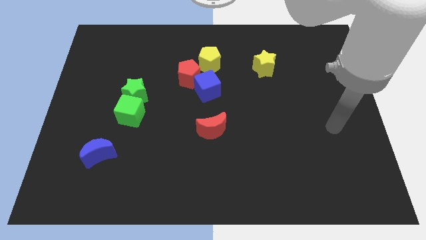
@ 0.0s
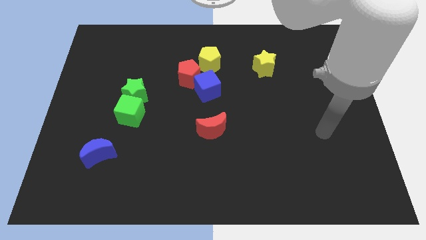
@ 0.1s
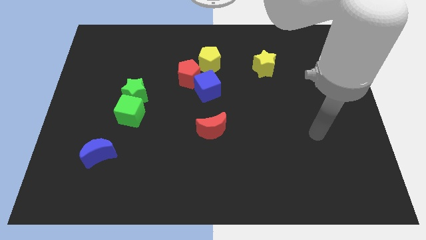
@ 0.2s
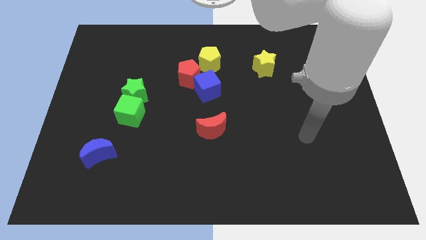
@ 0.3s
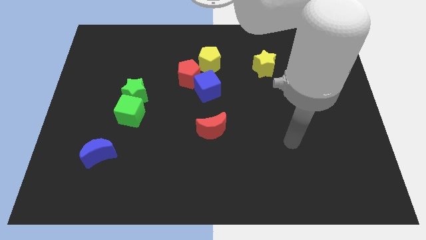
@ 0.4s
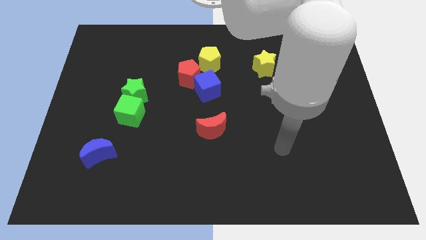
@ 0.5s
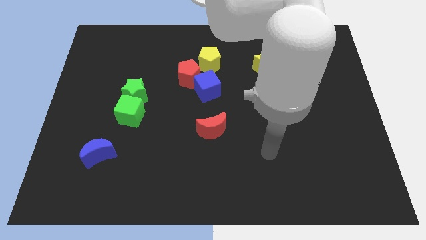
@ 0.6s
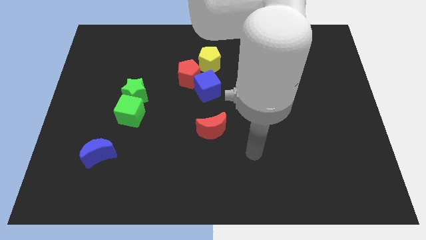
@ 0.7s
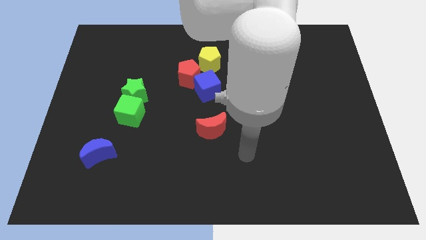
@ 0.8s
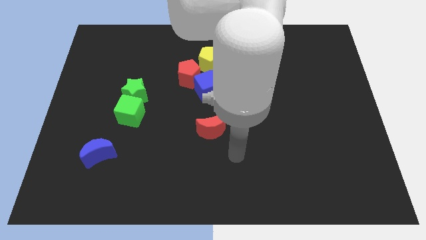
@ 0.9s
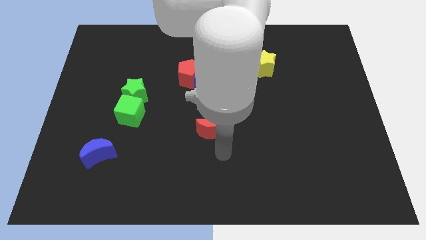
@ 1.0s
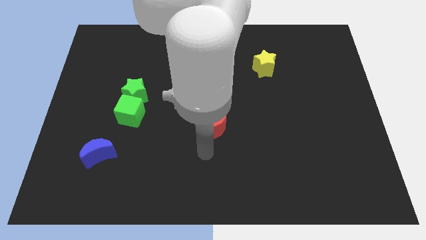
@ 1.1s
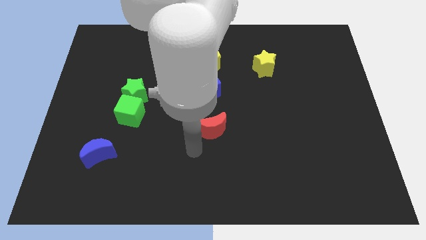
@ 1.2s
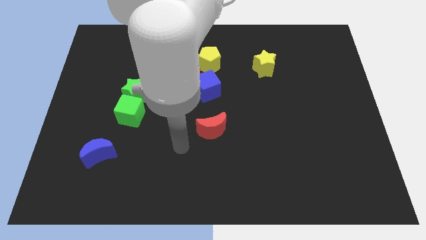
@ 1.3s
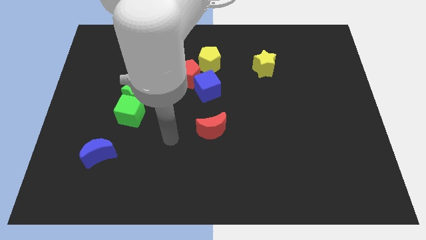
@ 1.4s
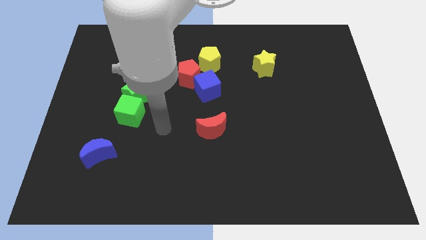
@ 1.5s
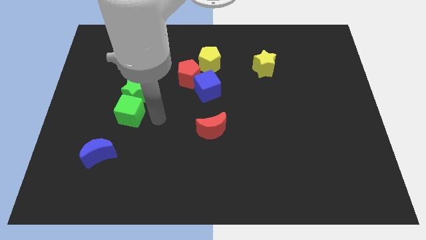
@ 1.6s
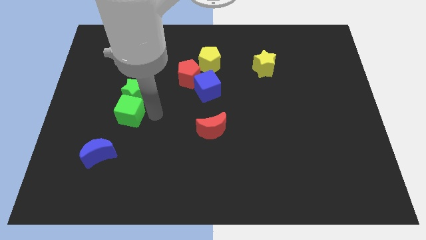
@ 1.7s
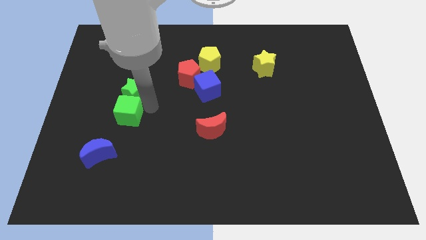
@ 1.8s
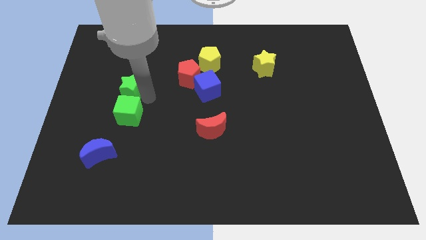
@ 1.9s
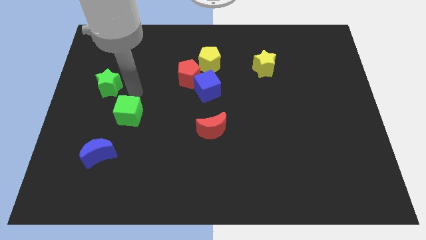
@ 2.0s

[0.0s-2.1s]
move the green cube away from the green star

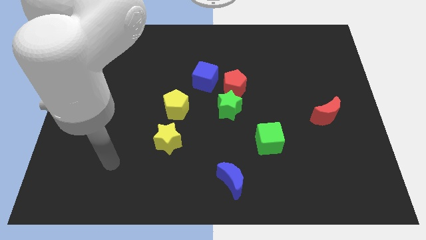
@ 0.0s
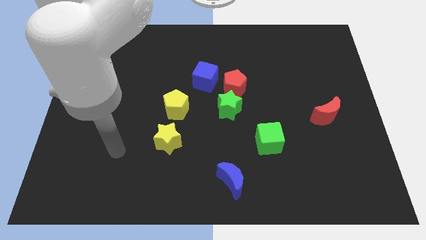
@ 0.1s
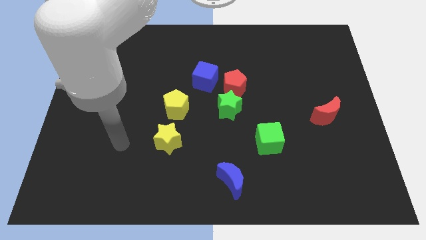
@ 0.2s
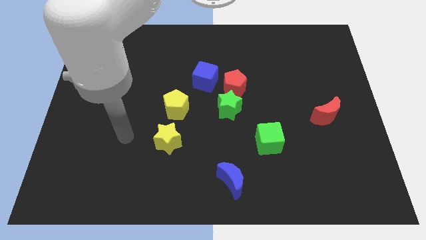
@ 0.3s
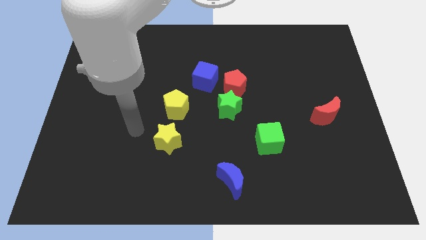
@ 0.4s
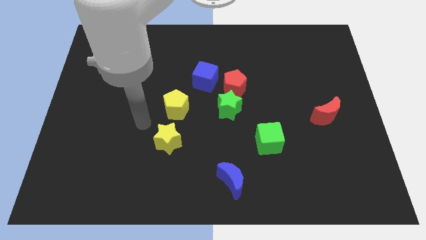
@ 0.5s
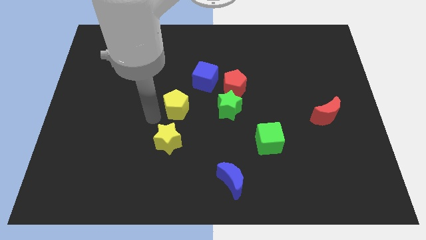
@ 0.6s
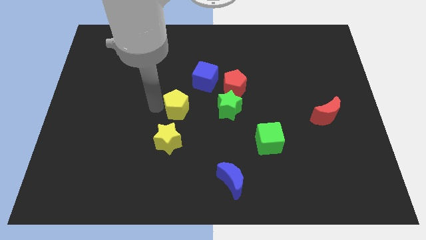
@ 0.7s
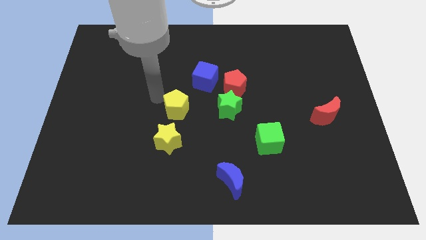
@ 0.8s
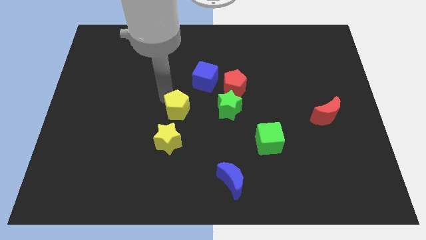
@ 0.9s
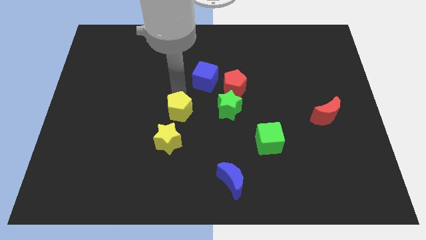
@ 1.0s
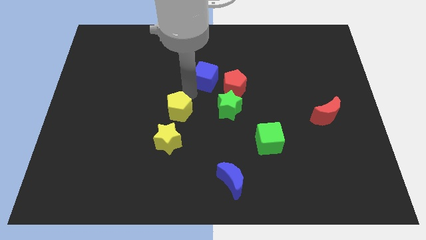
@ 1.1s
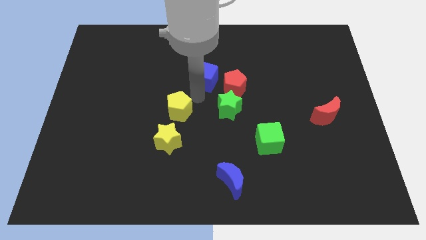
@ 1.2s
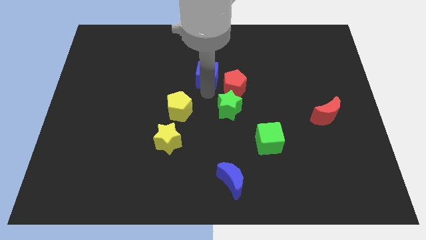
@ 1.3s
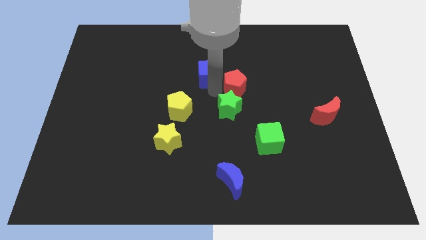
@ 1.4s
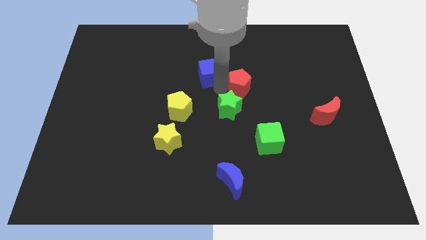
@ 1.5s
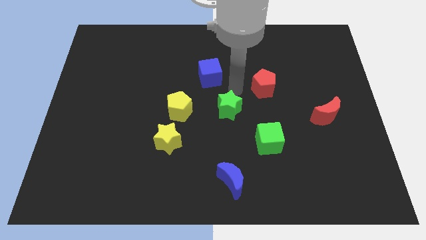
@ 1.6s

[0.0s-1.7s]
move the green star away from the red pentagon

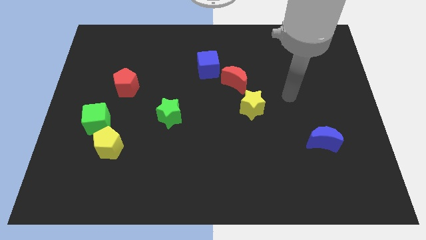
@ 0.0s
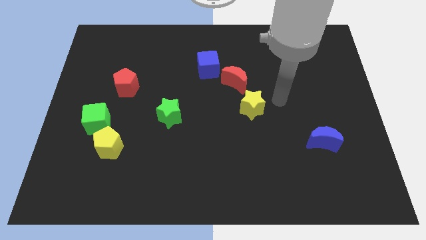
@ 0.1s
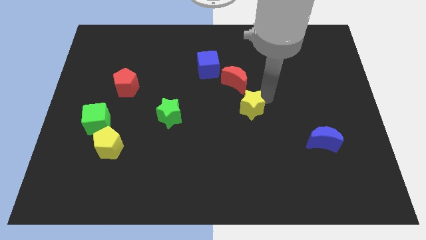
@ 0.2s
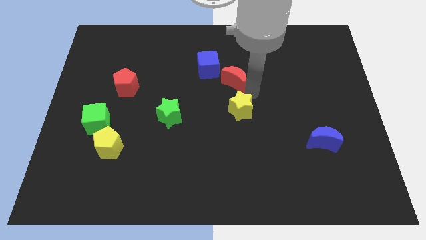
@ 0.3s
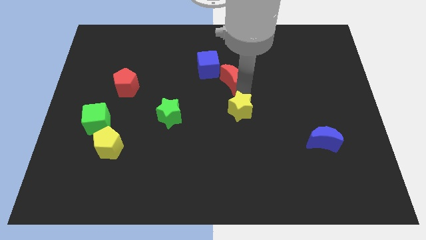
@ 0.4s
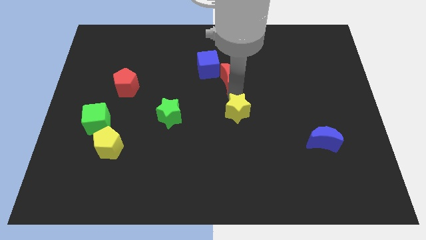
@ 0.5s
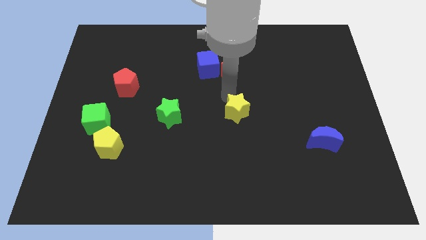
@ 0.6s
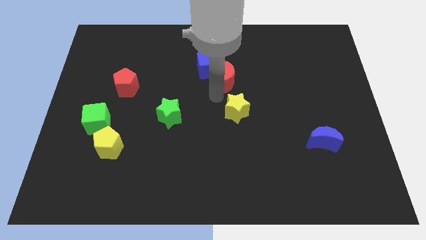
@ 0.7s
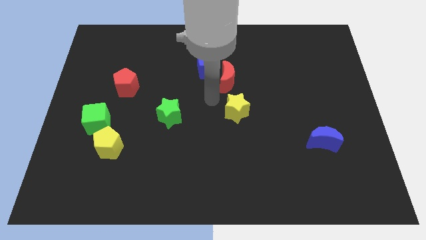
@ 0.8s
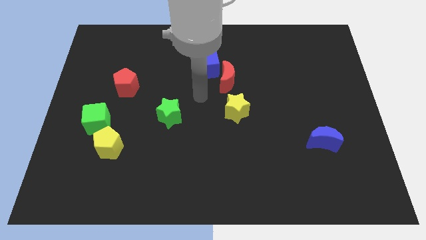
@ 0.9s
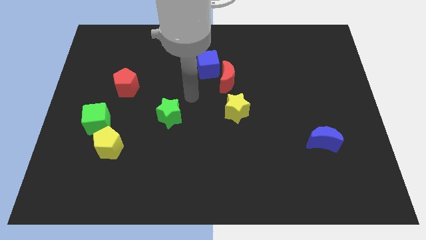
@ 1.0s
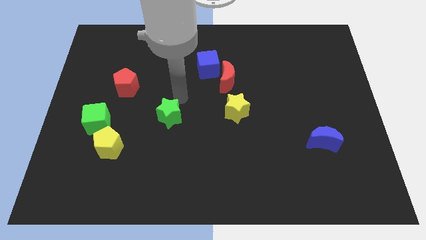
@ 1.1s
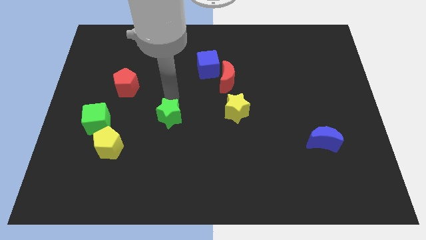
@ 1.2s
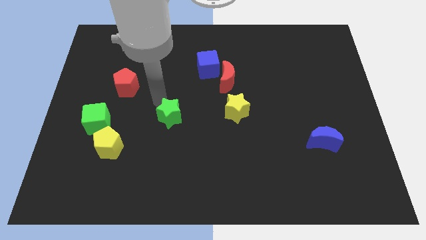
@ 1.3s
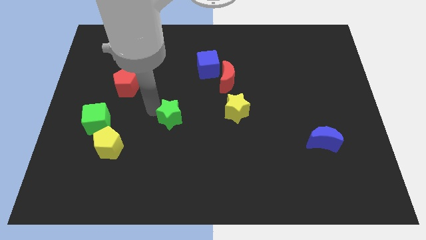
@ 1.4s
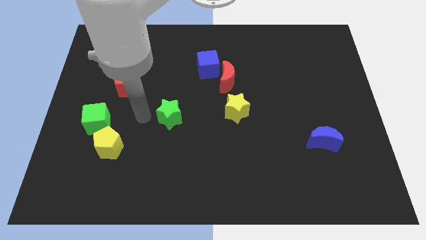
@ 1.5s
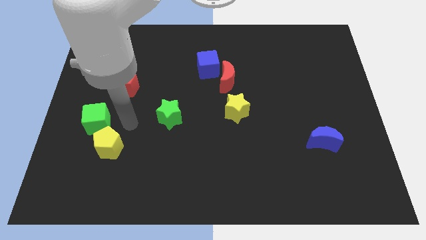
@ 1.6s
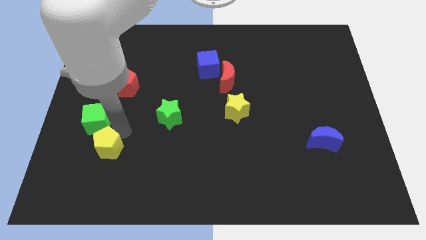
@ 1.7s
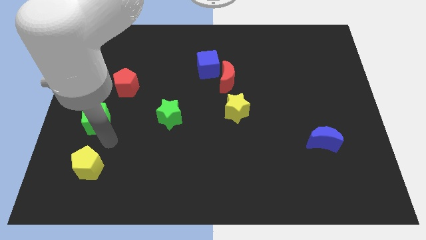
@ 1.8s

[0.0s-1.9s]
pull the green cube apart from the yellow pentagon

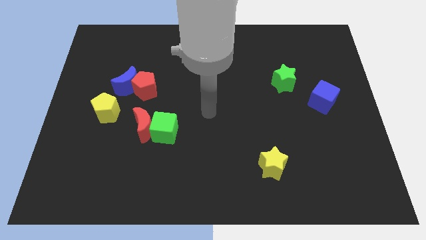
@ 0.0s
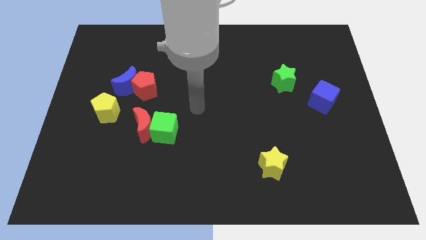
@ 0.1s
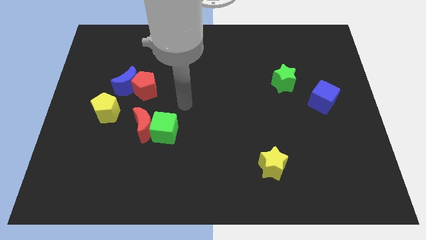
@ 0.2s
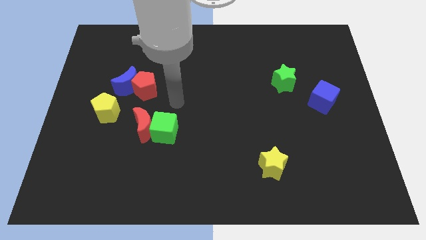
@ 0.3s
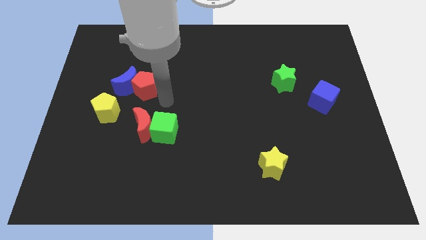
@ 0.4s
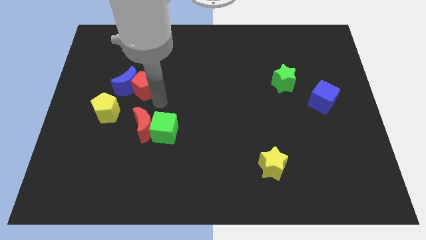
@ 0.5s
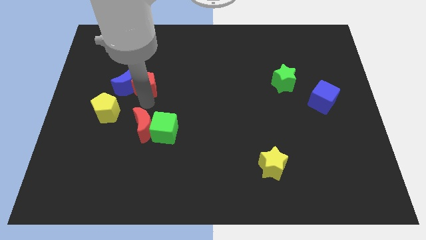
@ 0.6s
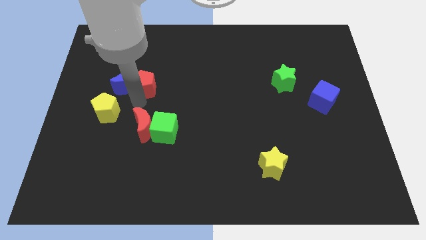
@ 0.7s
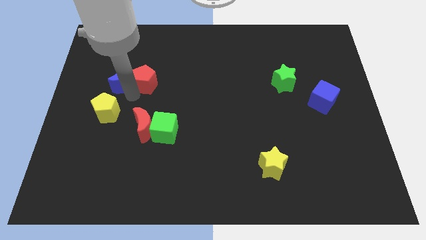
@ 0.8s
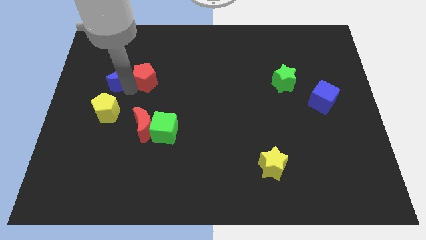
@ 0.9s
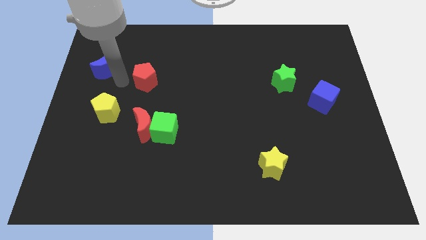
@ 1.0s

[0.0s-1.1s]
separate the red pentagon from the blue moon

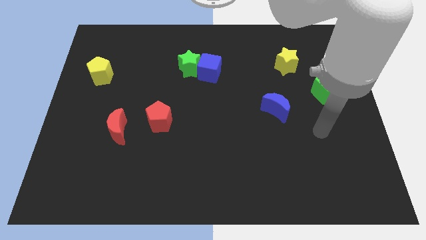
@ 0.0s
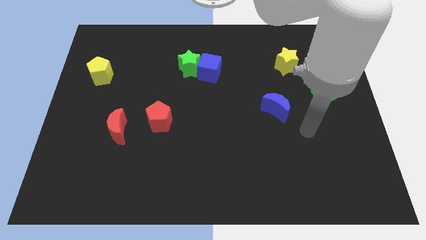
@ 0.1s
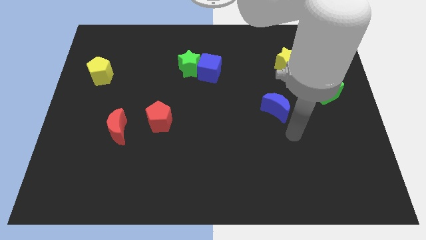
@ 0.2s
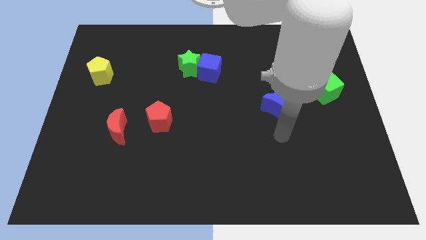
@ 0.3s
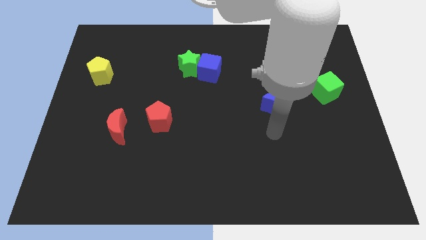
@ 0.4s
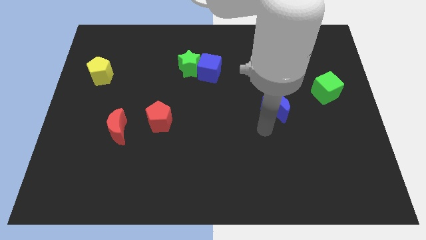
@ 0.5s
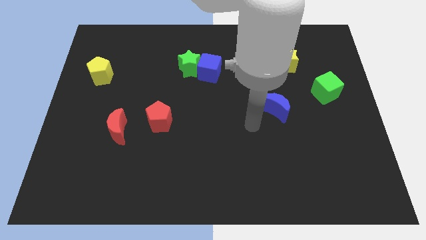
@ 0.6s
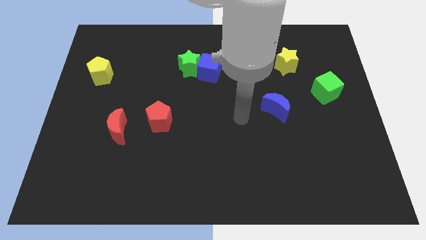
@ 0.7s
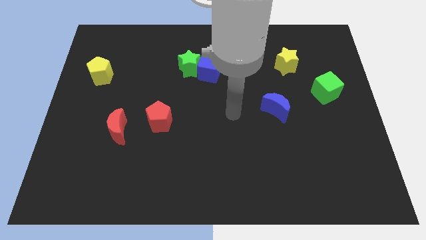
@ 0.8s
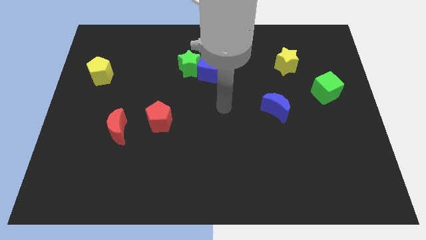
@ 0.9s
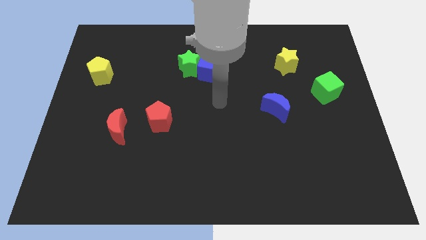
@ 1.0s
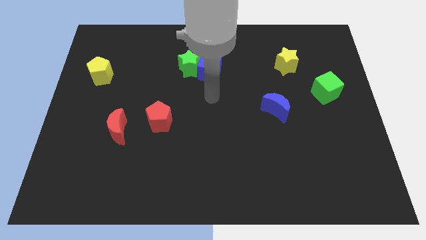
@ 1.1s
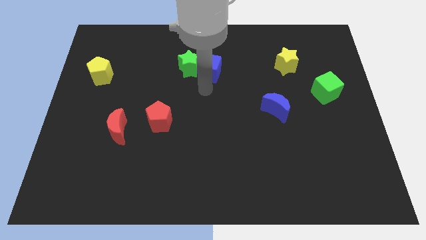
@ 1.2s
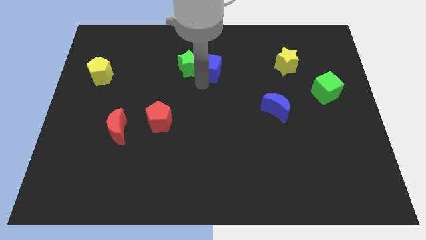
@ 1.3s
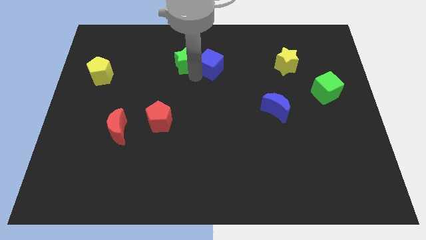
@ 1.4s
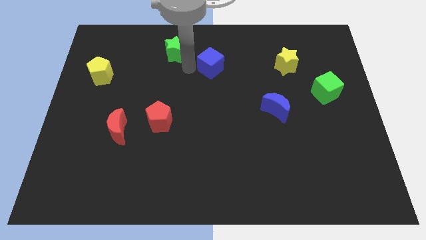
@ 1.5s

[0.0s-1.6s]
separate the blue cube from the green star

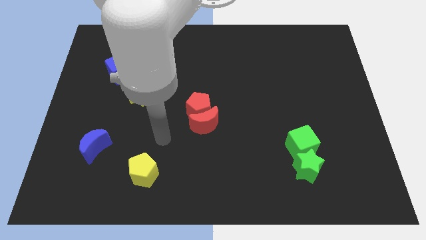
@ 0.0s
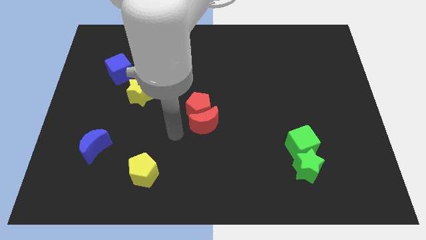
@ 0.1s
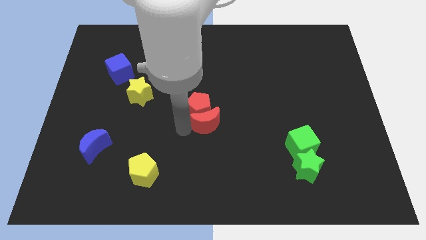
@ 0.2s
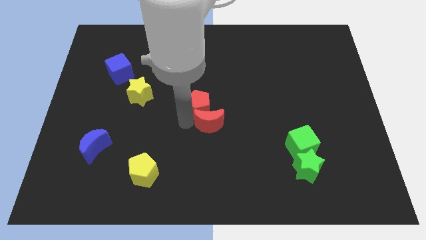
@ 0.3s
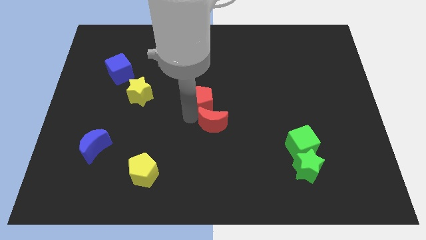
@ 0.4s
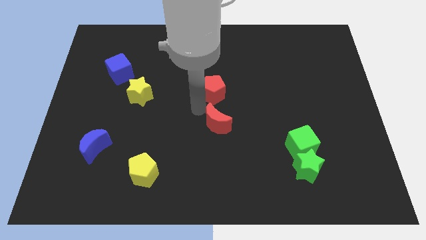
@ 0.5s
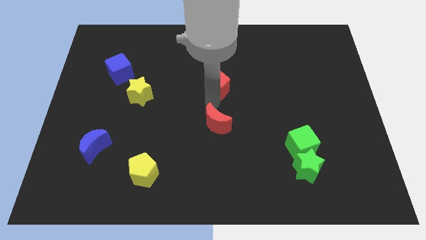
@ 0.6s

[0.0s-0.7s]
move the red moon away from the red pentagon

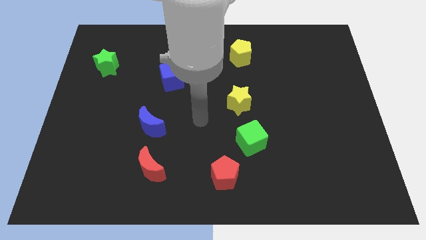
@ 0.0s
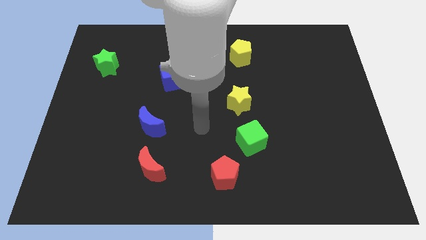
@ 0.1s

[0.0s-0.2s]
separate the red pentagon from the green cube
